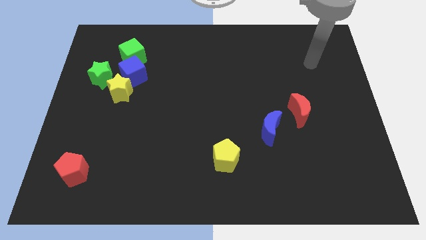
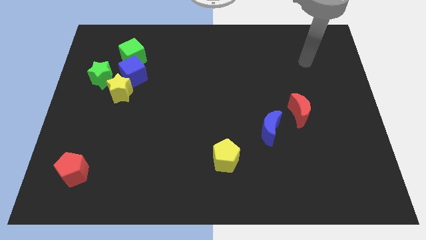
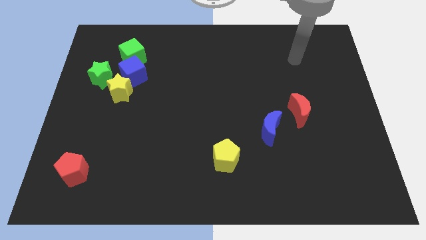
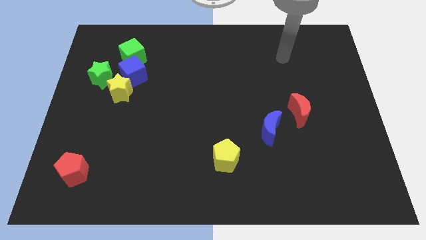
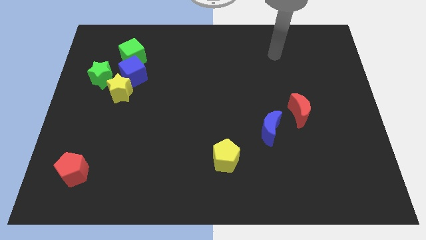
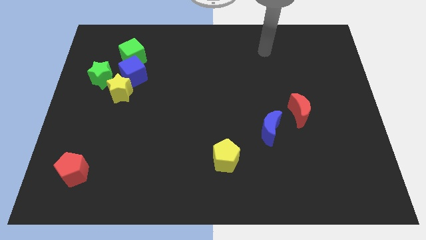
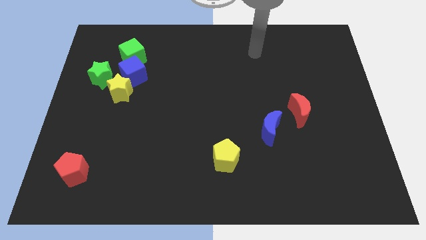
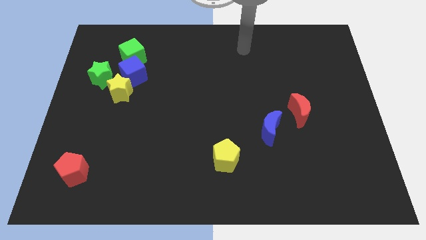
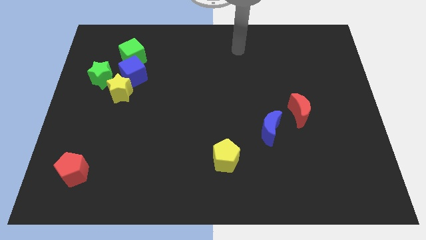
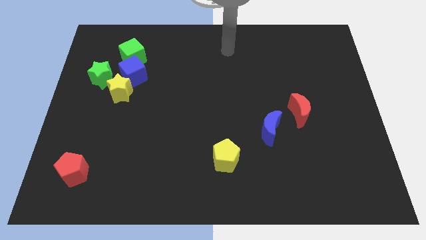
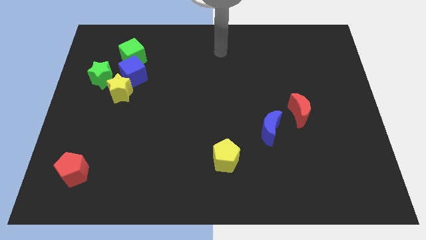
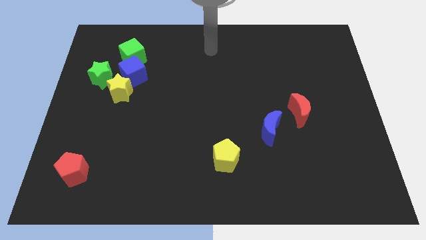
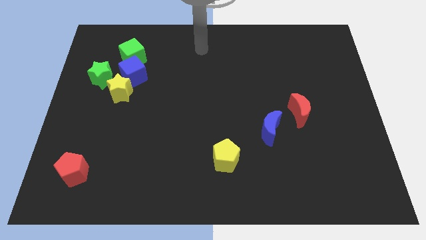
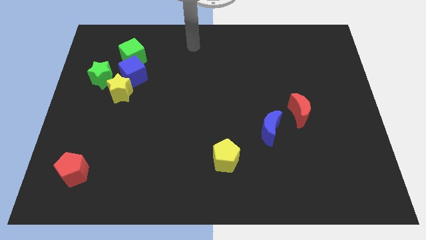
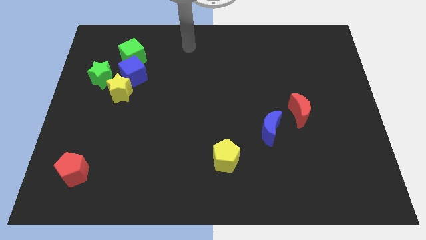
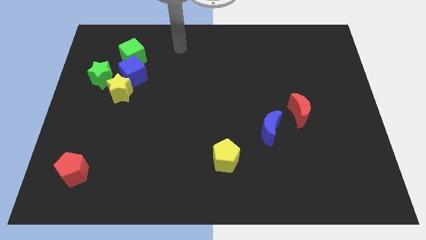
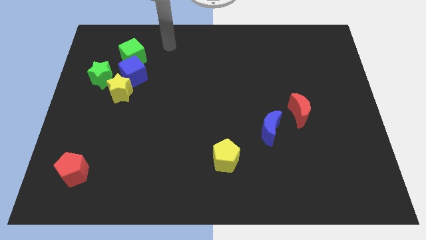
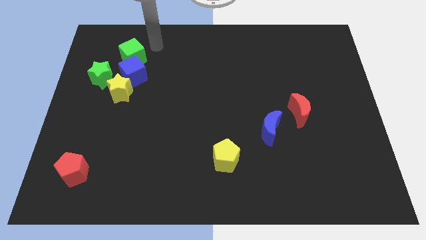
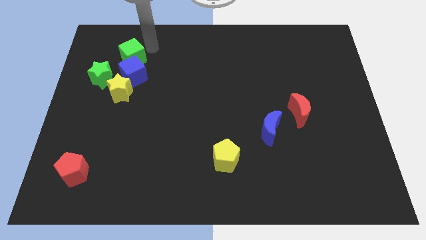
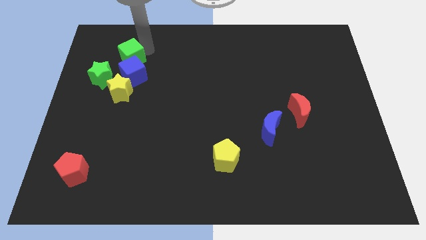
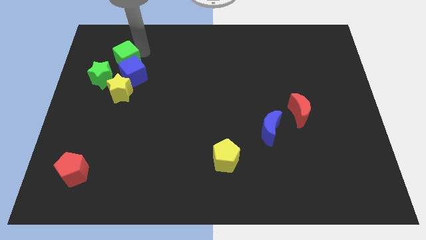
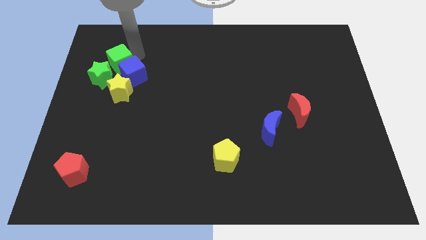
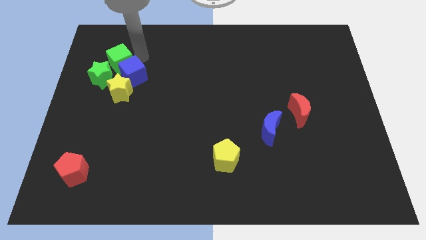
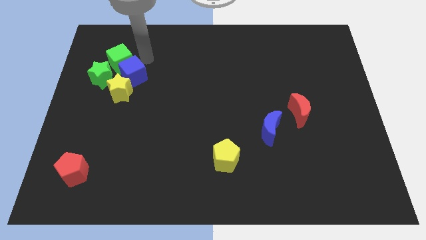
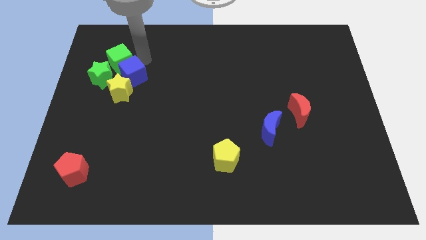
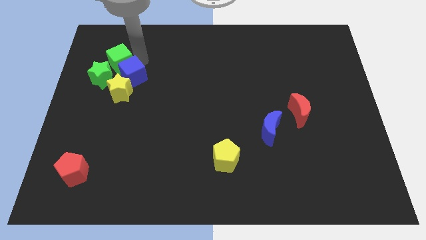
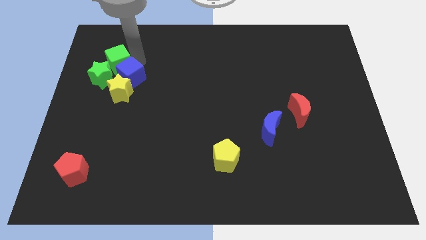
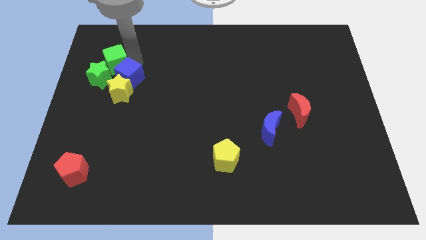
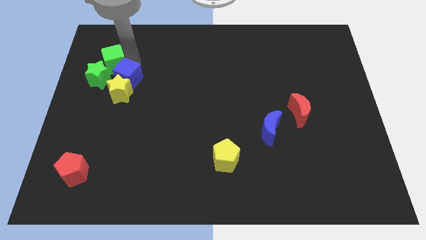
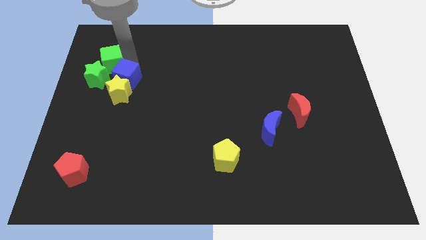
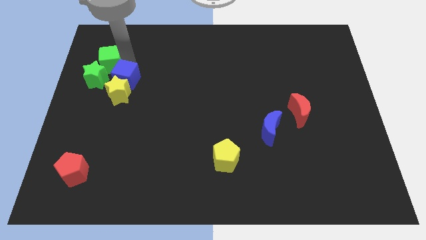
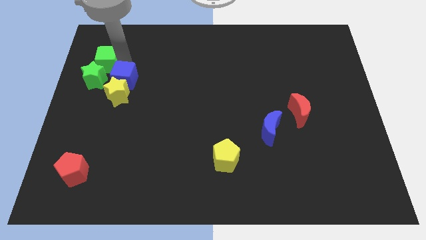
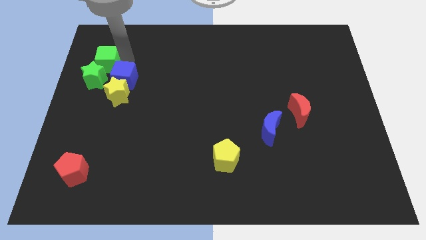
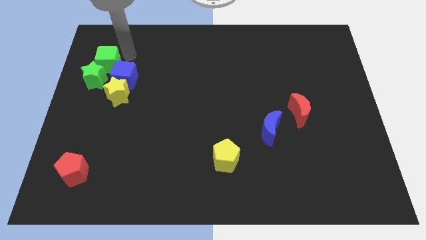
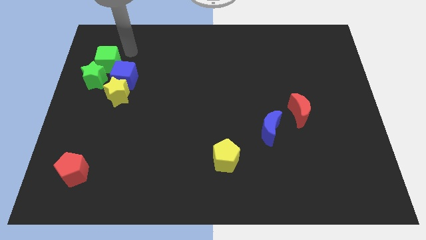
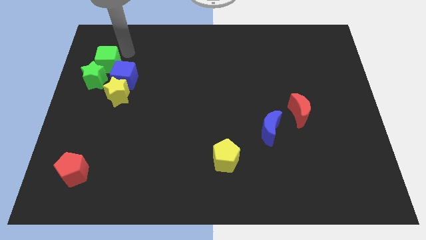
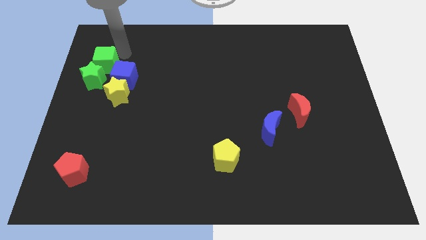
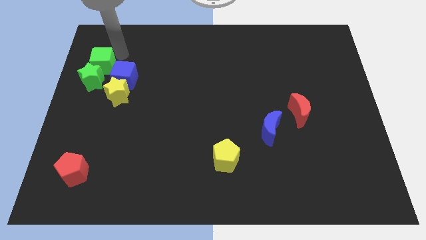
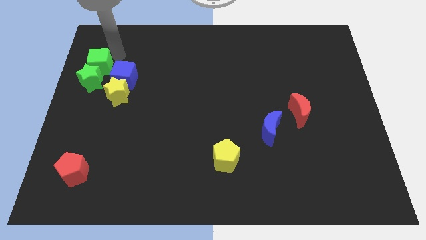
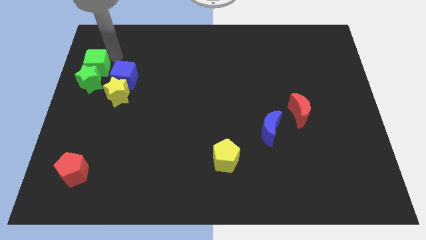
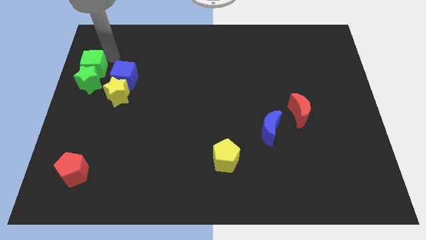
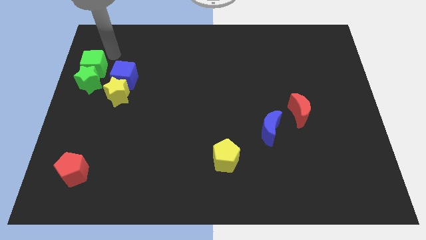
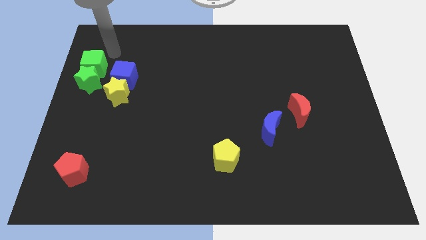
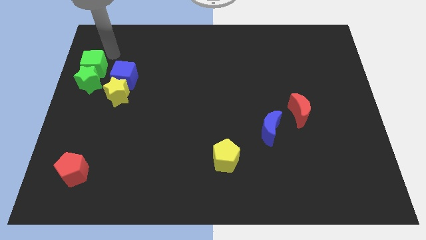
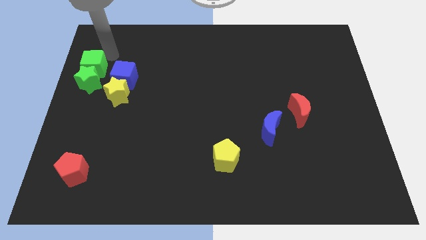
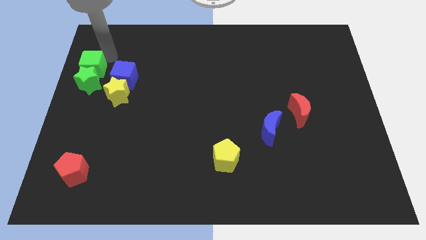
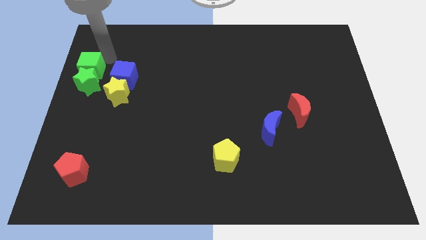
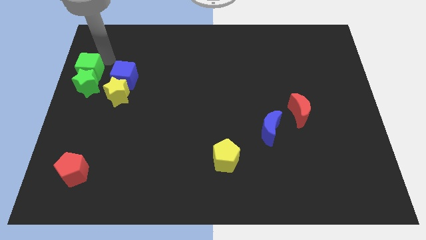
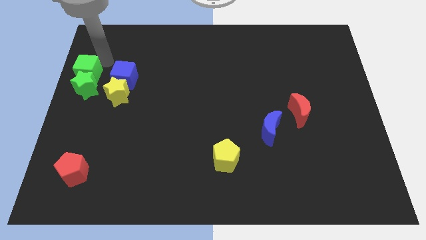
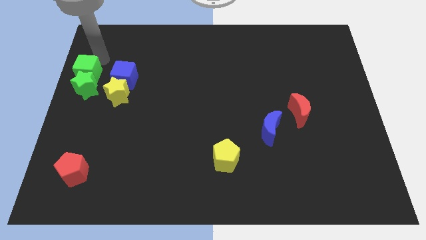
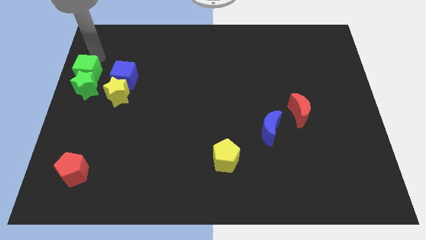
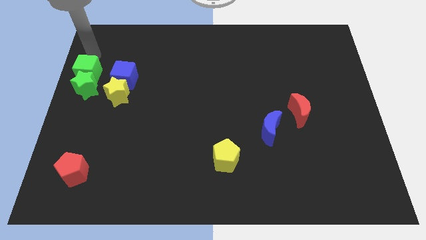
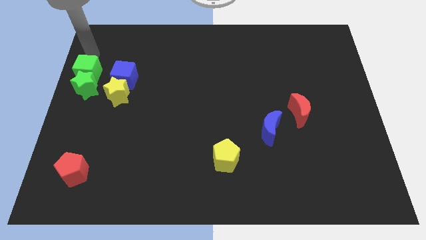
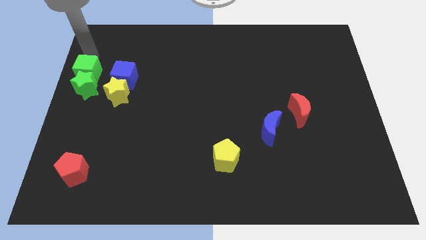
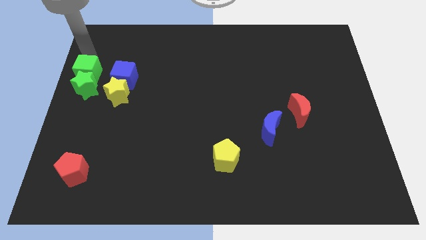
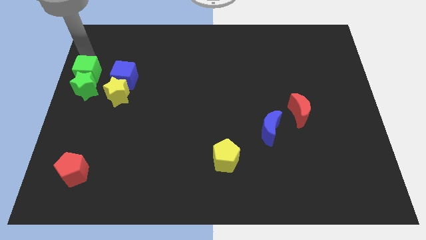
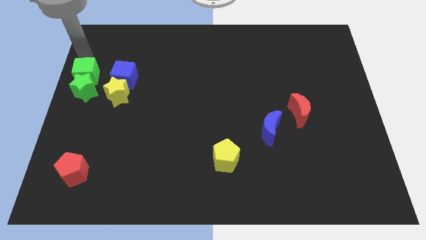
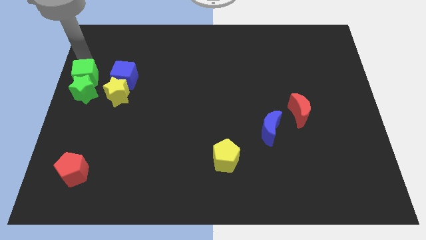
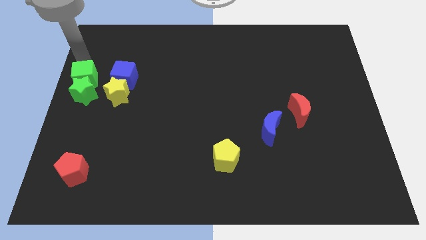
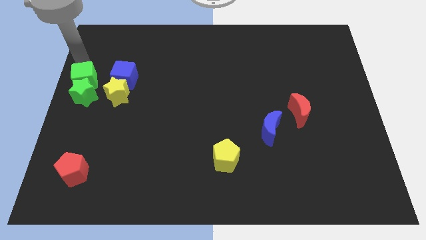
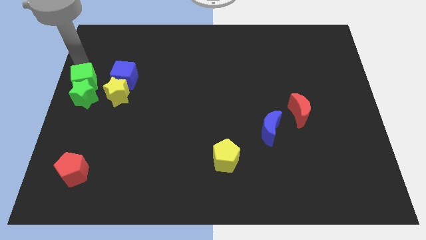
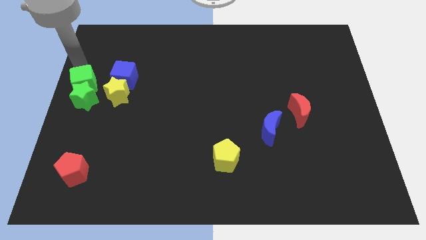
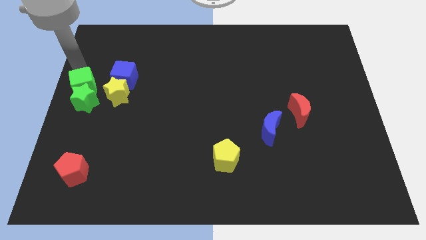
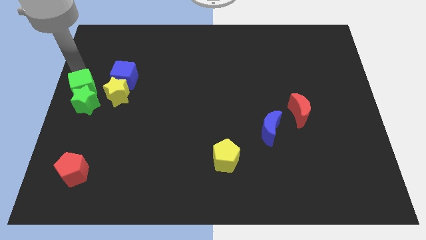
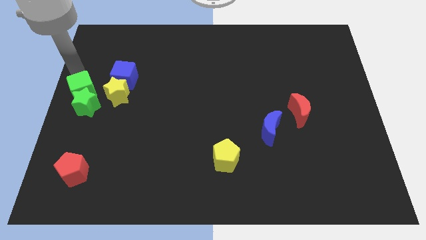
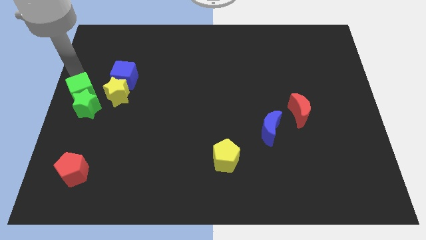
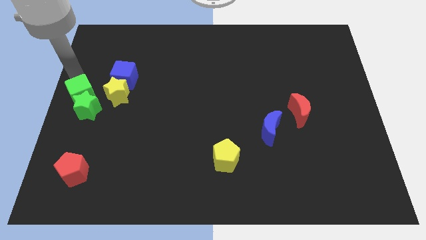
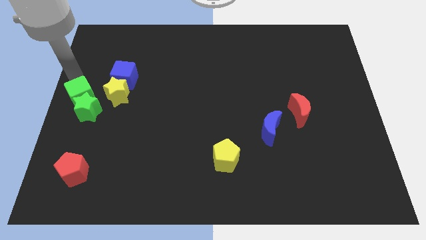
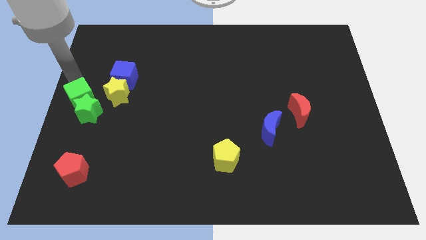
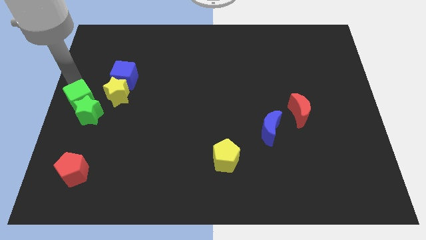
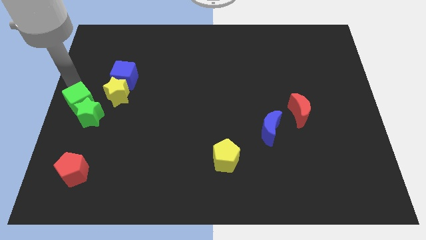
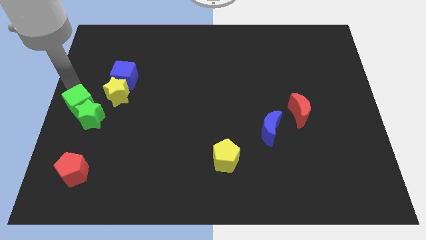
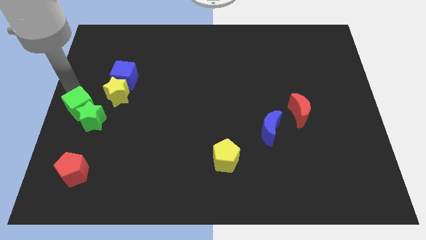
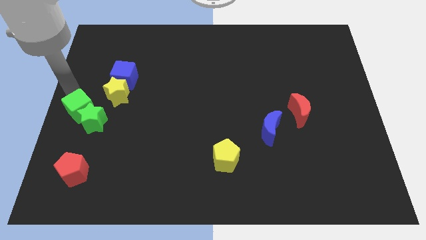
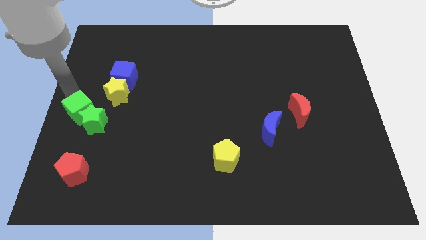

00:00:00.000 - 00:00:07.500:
move the green cube to the top of the red pentagon
